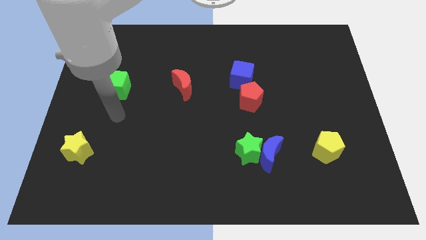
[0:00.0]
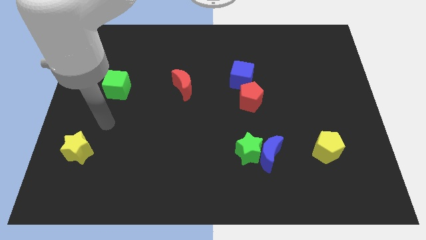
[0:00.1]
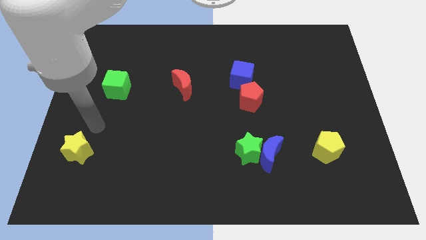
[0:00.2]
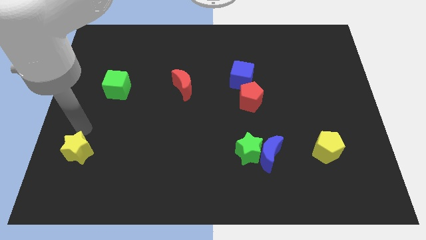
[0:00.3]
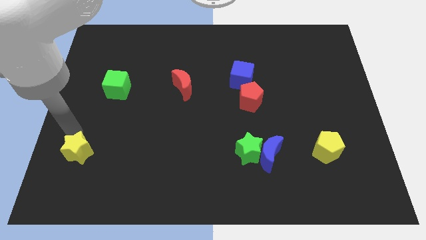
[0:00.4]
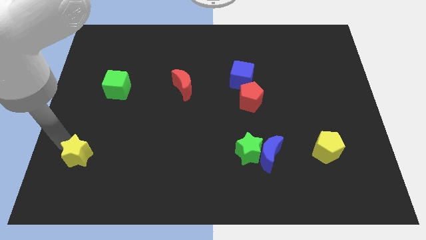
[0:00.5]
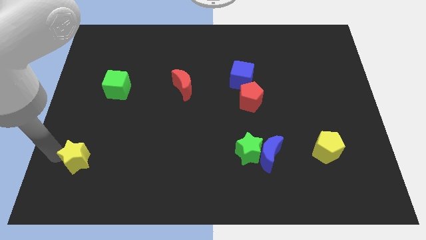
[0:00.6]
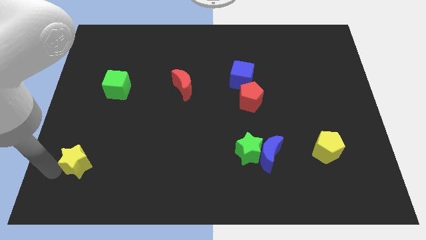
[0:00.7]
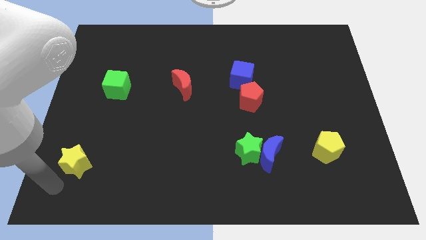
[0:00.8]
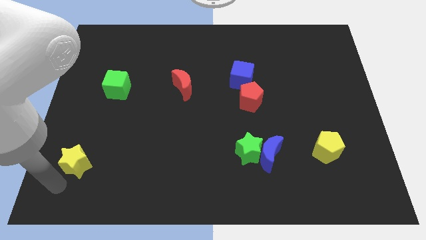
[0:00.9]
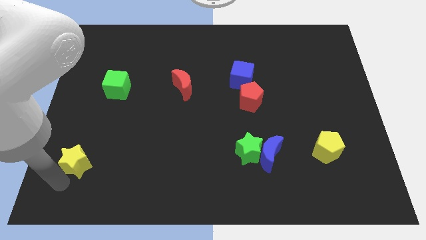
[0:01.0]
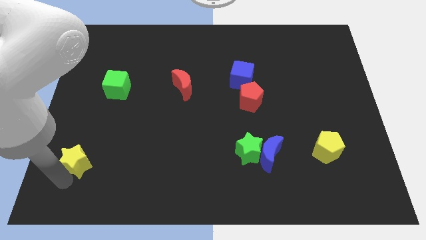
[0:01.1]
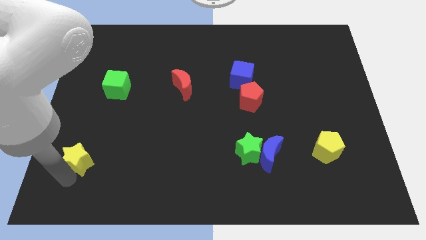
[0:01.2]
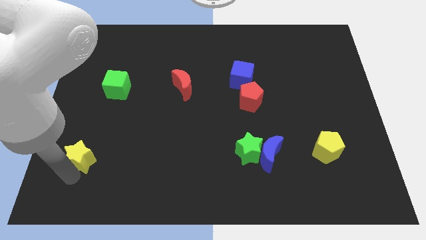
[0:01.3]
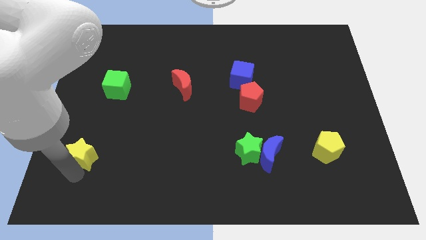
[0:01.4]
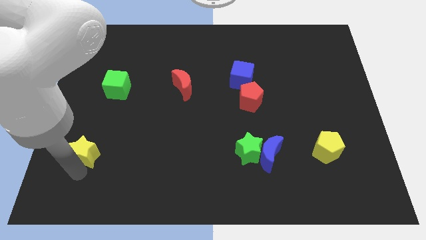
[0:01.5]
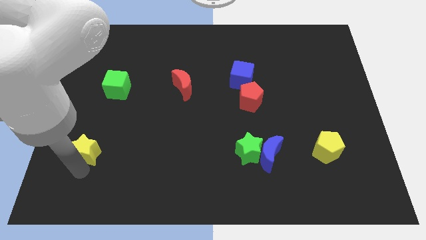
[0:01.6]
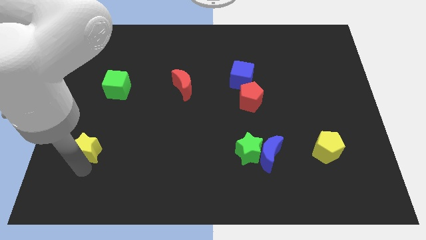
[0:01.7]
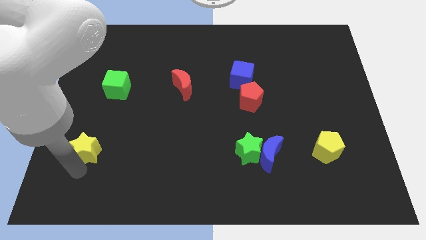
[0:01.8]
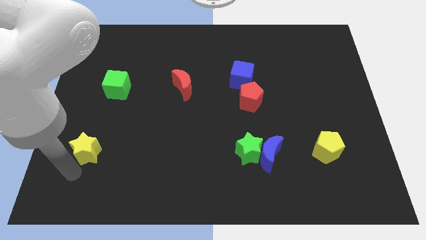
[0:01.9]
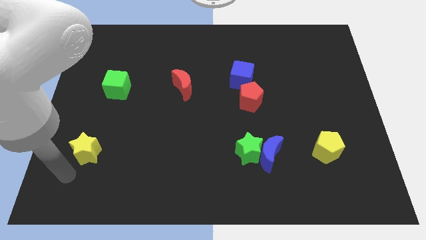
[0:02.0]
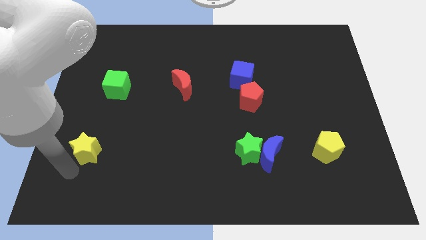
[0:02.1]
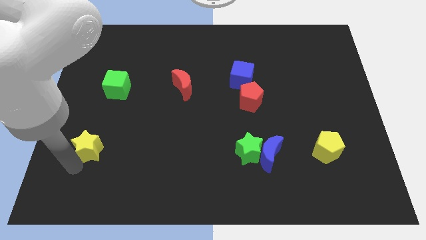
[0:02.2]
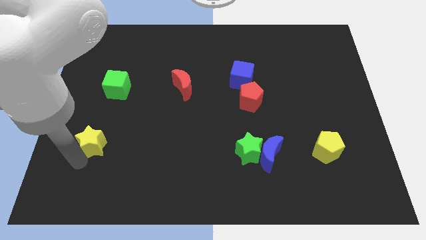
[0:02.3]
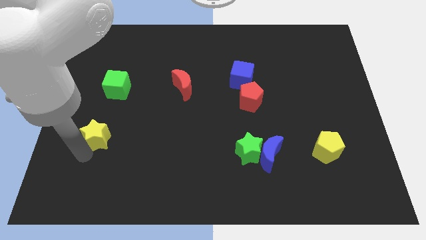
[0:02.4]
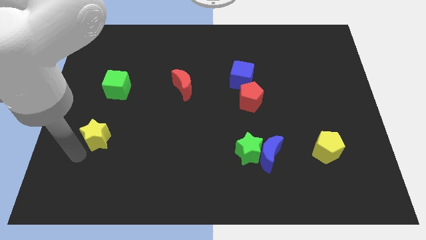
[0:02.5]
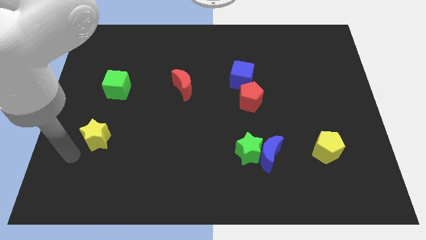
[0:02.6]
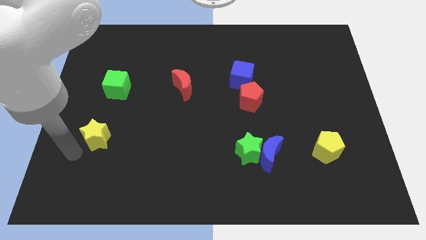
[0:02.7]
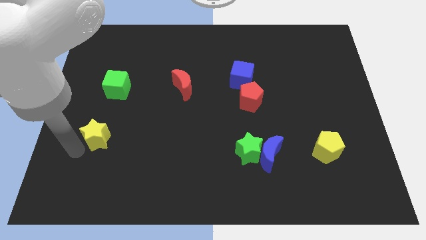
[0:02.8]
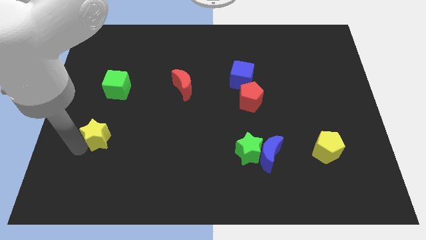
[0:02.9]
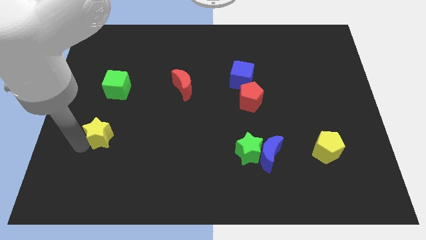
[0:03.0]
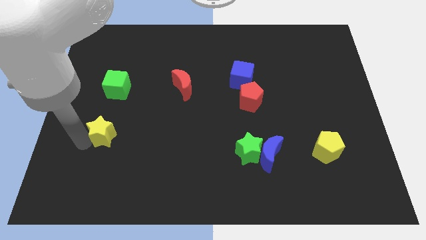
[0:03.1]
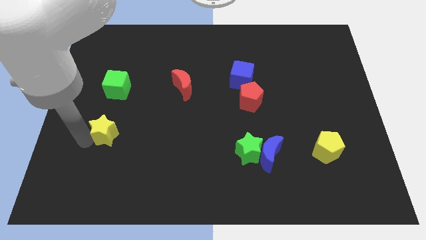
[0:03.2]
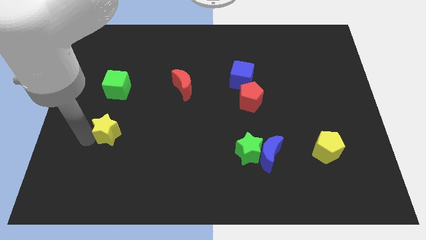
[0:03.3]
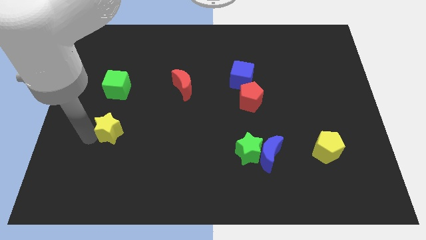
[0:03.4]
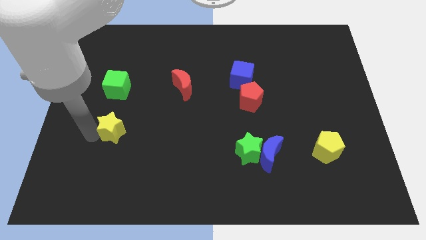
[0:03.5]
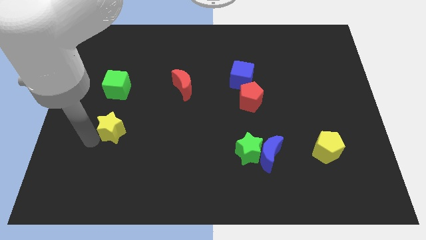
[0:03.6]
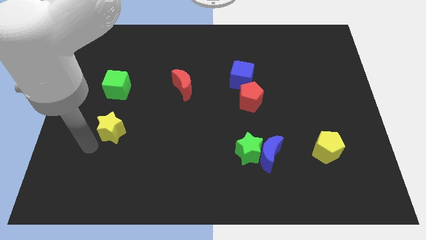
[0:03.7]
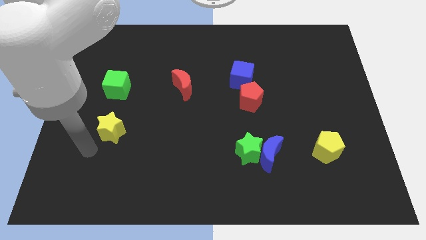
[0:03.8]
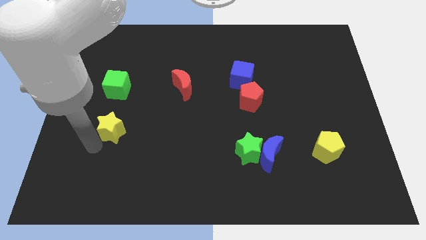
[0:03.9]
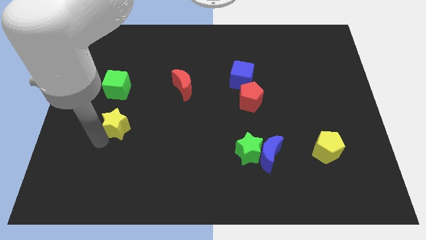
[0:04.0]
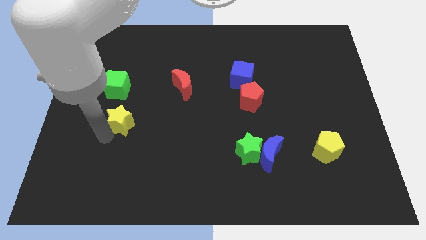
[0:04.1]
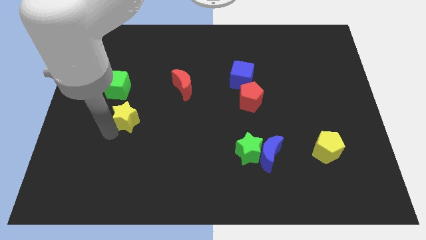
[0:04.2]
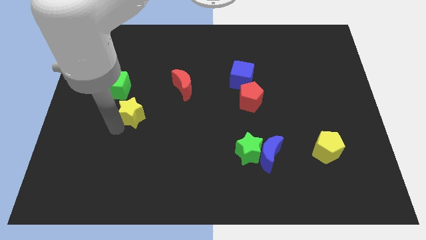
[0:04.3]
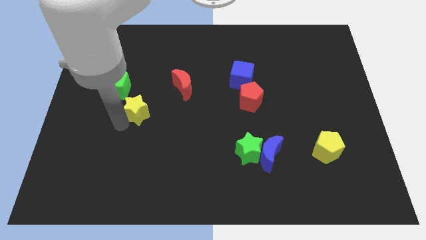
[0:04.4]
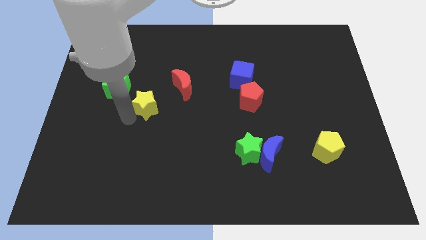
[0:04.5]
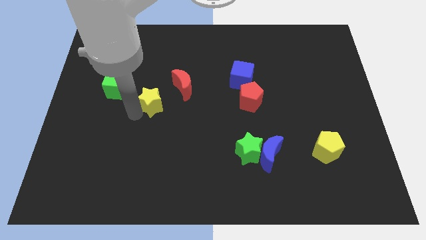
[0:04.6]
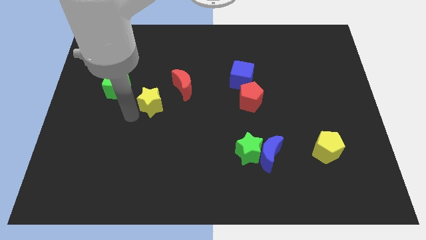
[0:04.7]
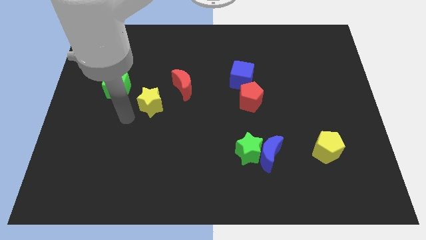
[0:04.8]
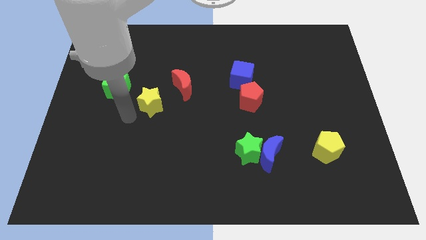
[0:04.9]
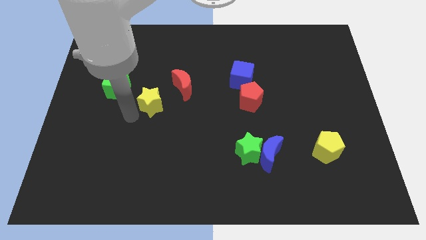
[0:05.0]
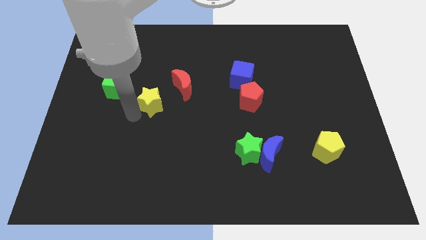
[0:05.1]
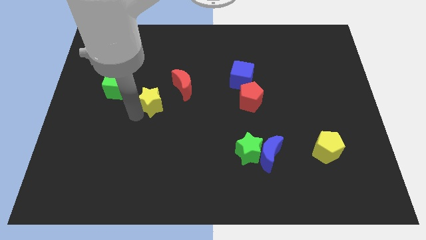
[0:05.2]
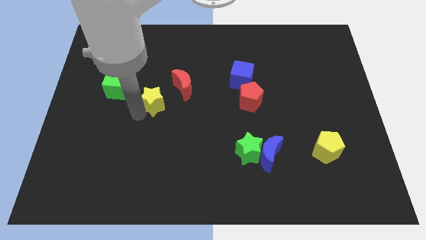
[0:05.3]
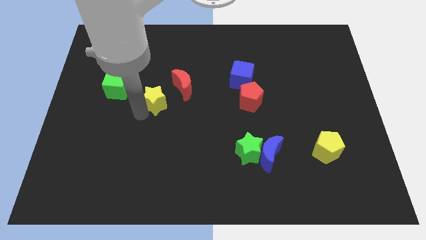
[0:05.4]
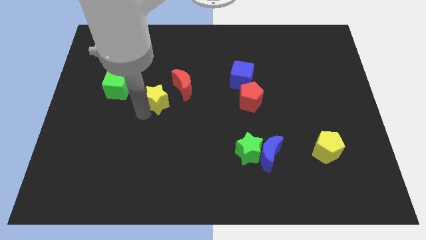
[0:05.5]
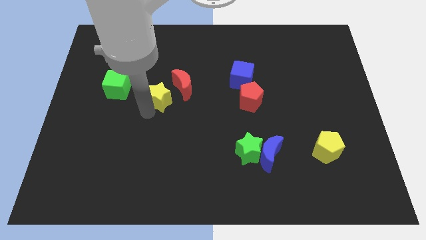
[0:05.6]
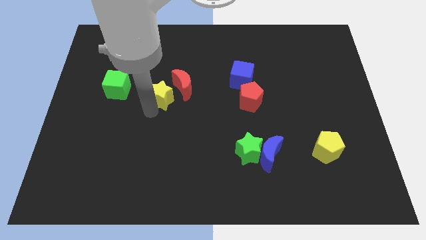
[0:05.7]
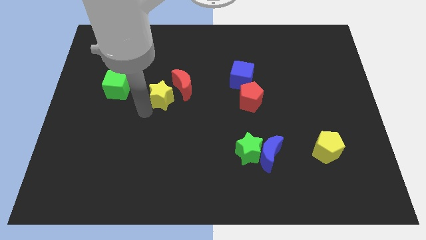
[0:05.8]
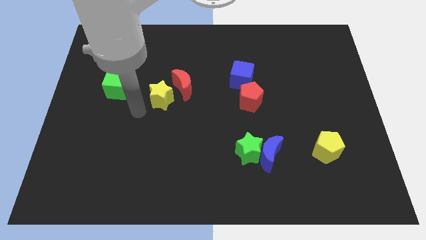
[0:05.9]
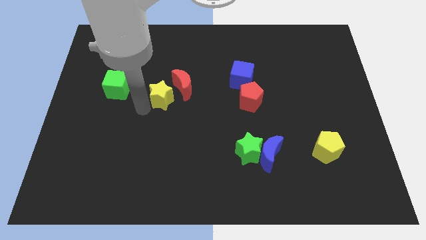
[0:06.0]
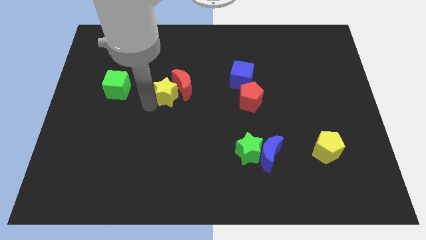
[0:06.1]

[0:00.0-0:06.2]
move the yellow star next to the red moon

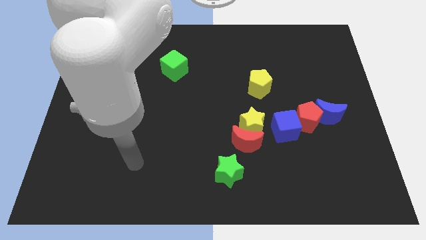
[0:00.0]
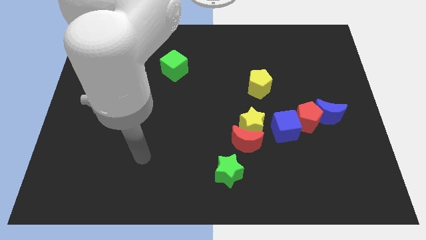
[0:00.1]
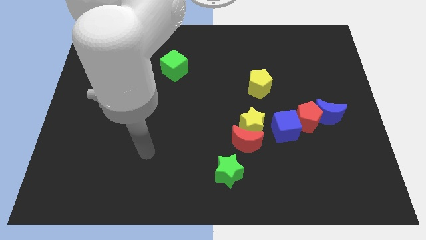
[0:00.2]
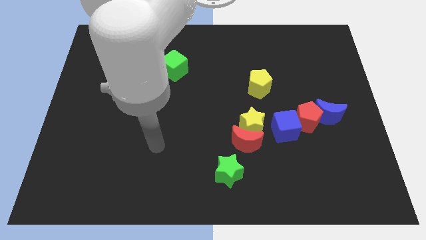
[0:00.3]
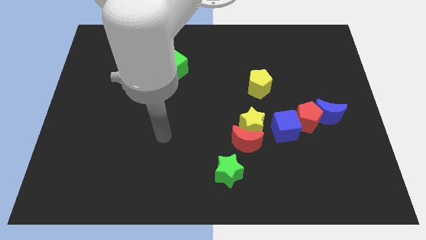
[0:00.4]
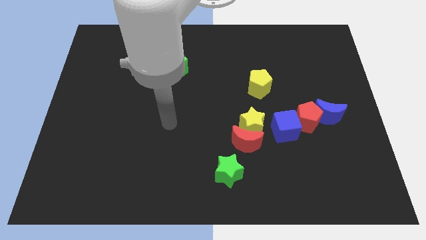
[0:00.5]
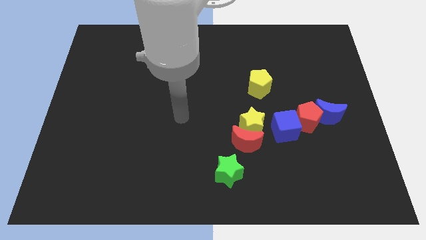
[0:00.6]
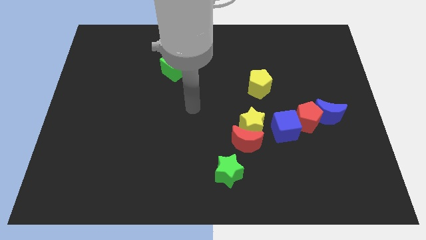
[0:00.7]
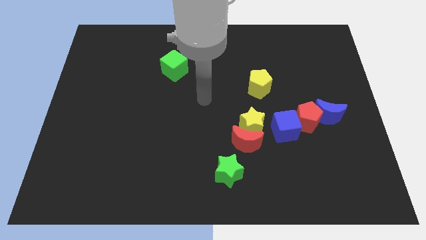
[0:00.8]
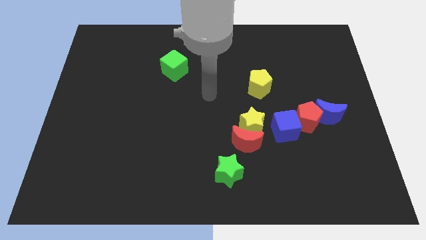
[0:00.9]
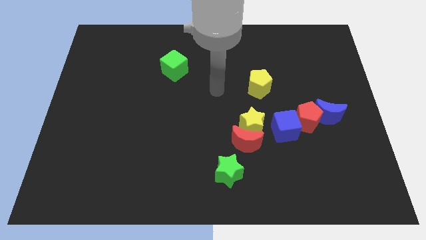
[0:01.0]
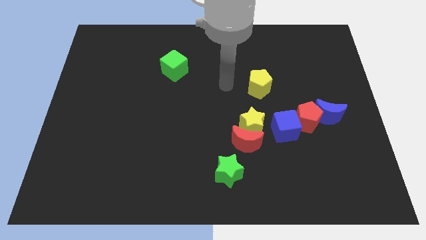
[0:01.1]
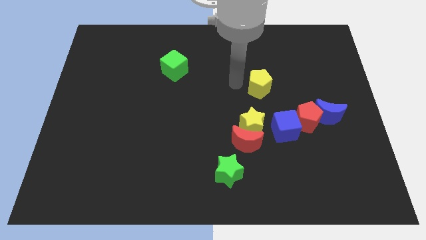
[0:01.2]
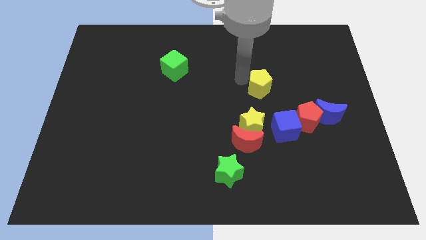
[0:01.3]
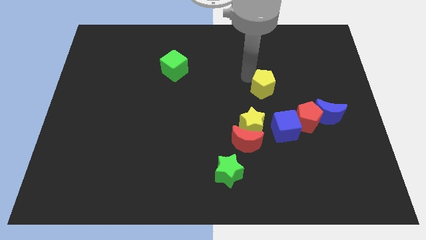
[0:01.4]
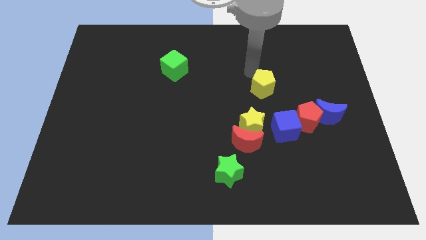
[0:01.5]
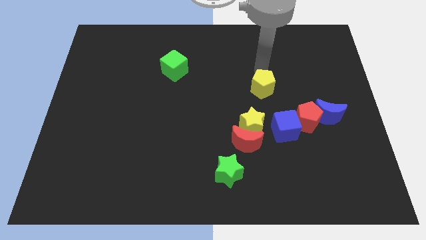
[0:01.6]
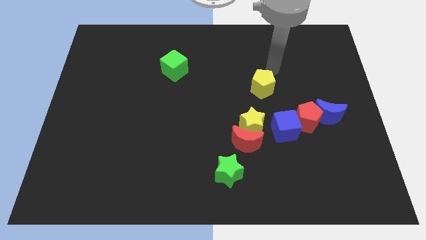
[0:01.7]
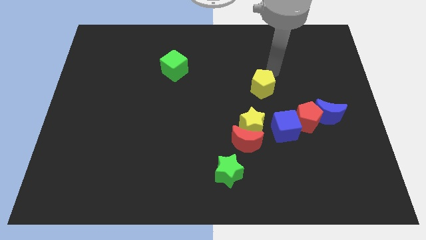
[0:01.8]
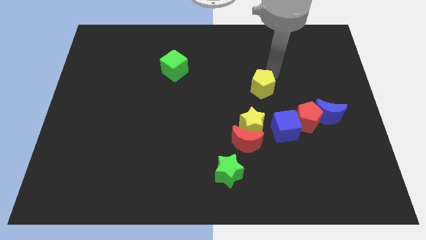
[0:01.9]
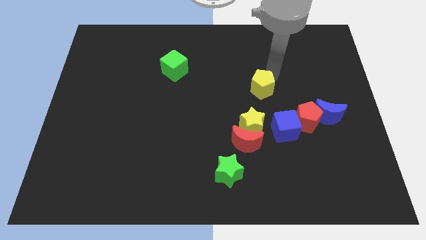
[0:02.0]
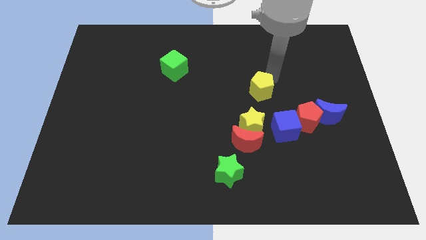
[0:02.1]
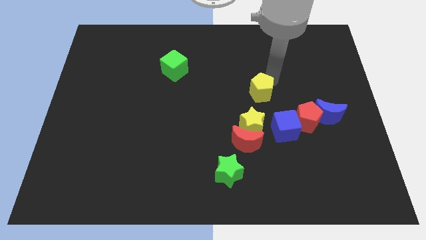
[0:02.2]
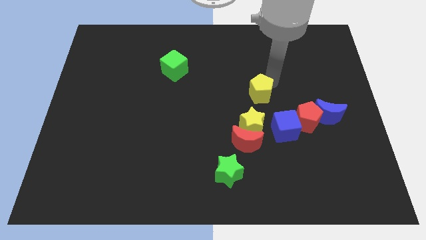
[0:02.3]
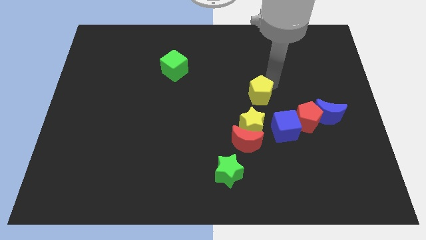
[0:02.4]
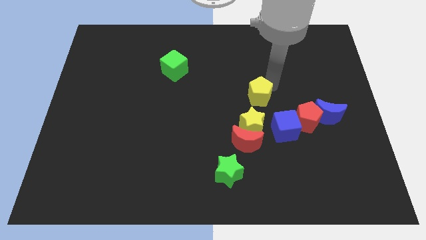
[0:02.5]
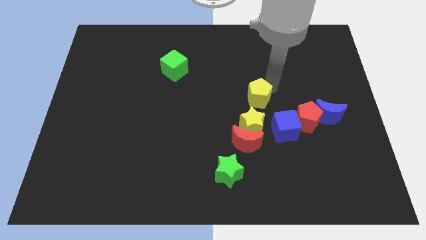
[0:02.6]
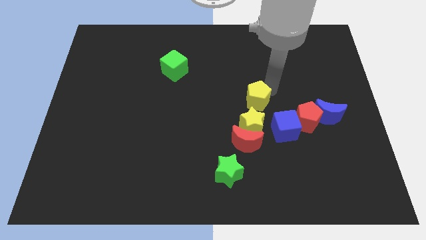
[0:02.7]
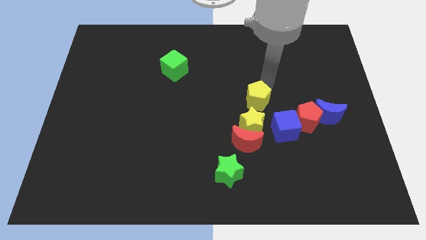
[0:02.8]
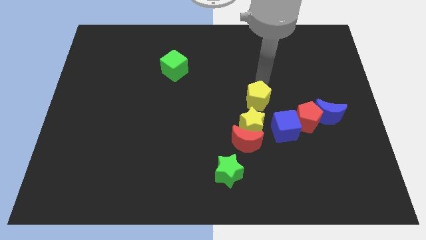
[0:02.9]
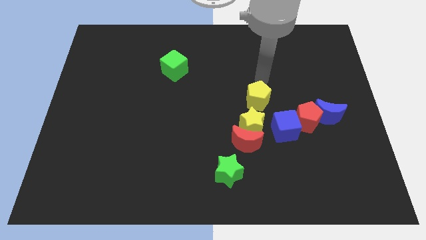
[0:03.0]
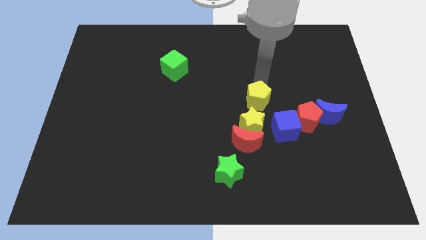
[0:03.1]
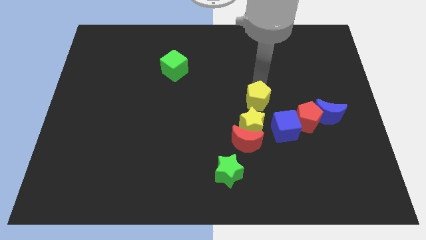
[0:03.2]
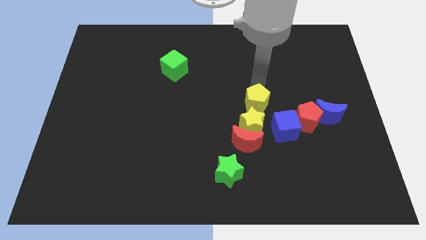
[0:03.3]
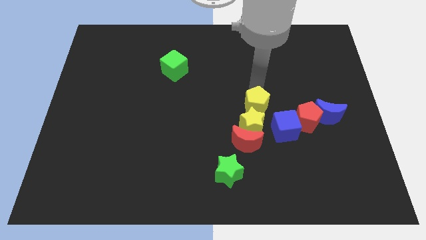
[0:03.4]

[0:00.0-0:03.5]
push the yellow pentagon next to the yellow star
